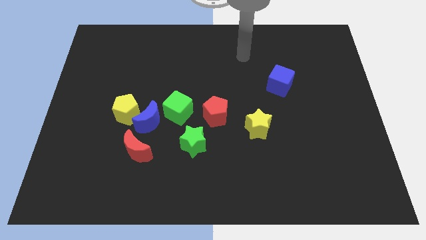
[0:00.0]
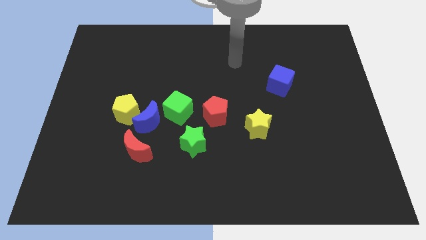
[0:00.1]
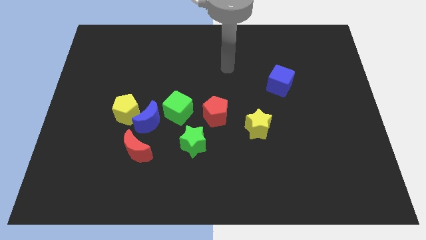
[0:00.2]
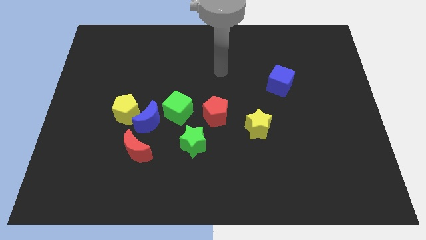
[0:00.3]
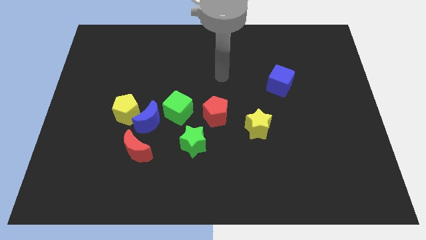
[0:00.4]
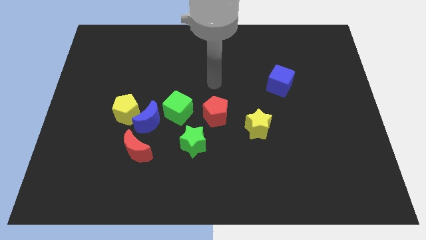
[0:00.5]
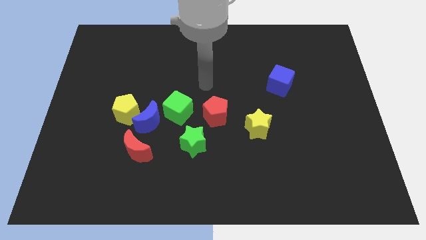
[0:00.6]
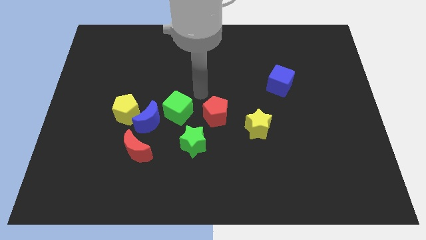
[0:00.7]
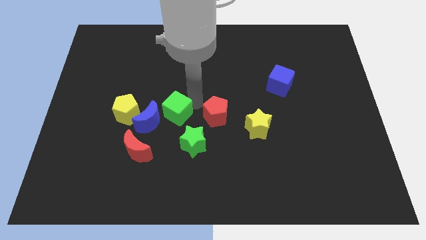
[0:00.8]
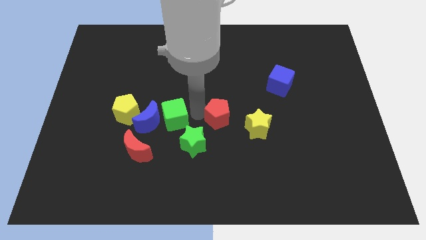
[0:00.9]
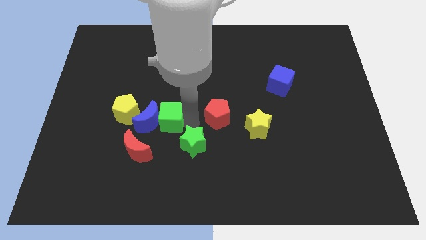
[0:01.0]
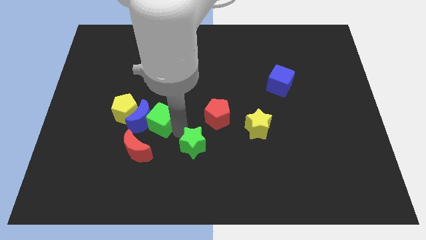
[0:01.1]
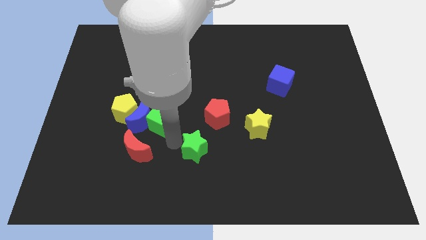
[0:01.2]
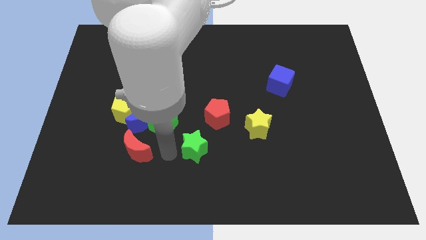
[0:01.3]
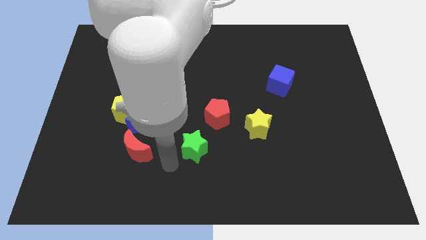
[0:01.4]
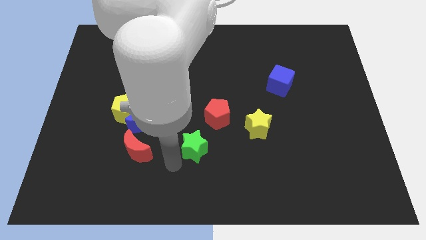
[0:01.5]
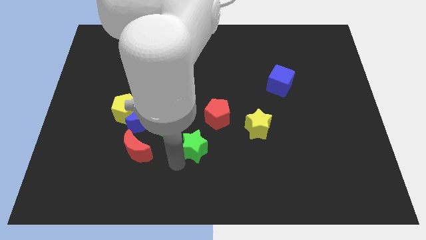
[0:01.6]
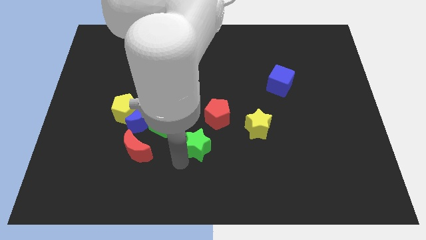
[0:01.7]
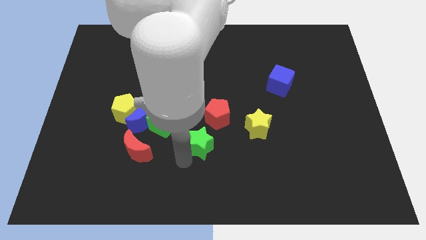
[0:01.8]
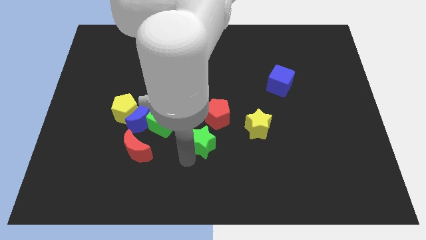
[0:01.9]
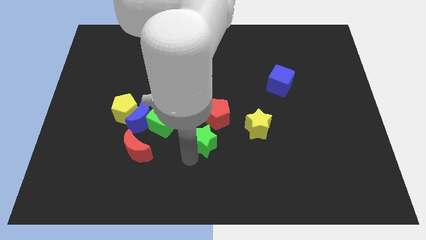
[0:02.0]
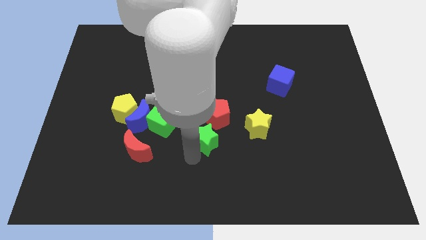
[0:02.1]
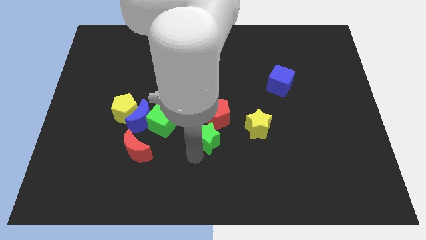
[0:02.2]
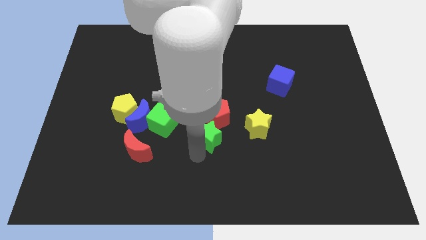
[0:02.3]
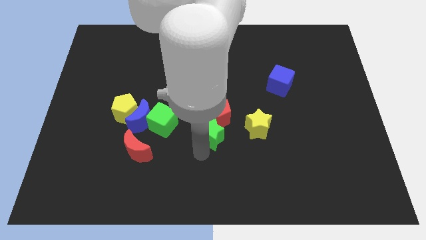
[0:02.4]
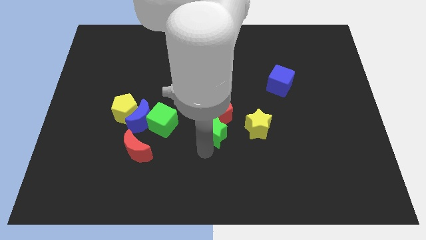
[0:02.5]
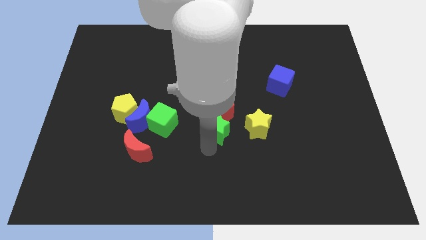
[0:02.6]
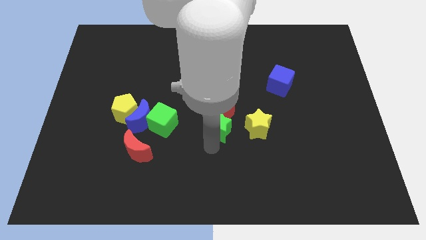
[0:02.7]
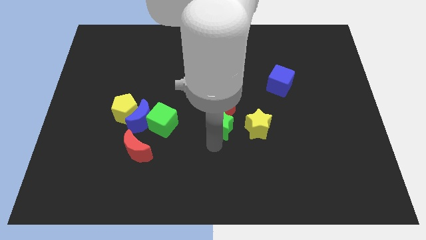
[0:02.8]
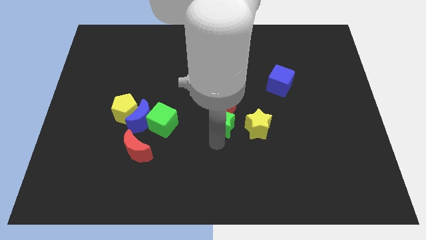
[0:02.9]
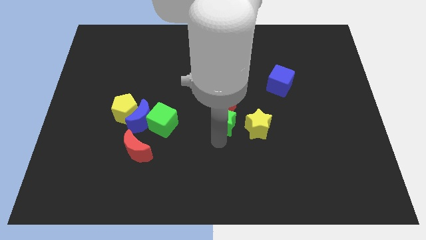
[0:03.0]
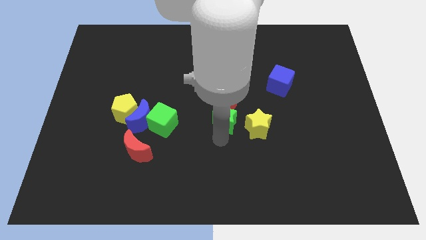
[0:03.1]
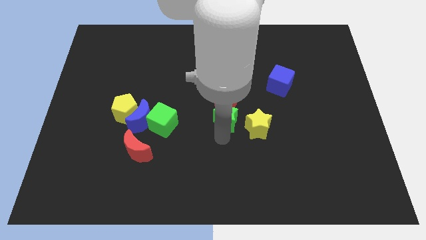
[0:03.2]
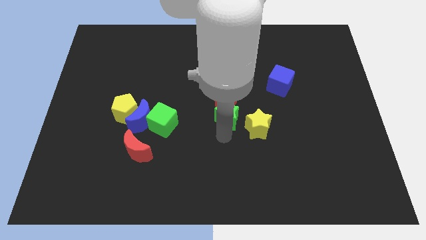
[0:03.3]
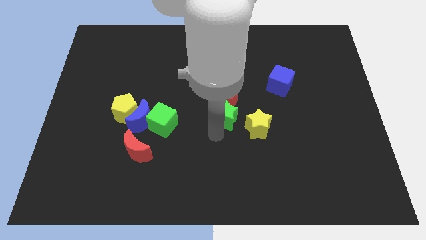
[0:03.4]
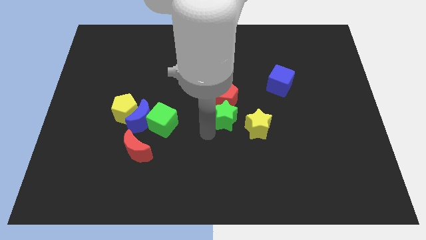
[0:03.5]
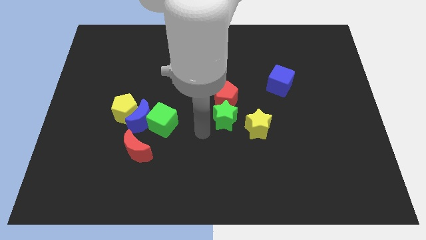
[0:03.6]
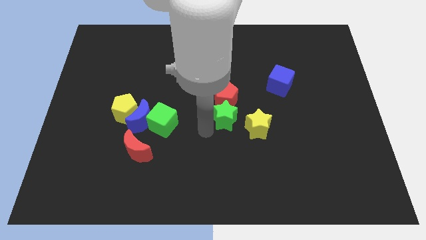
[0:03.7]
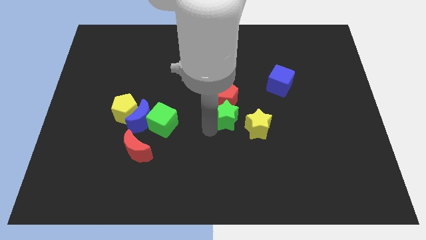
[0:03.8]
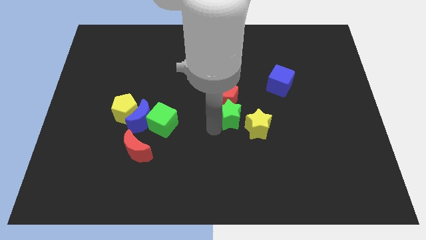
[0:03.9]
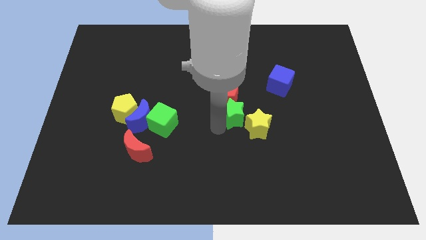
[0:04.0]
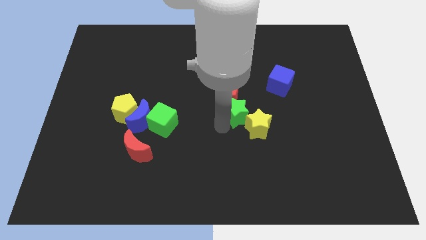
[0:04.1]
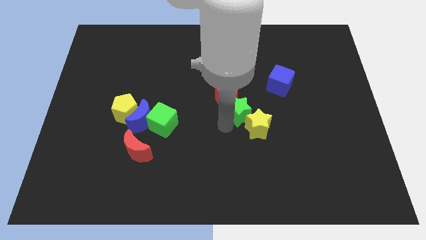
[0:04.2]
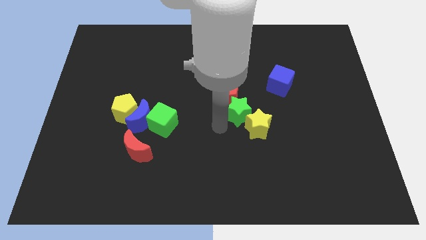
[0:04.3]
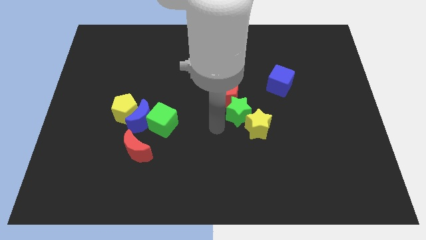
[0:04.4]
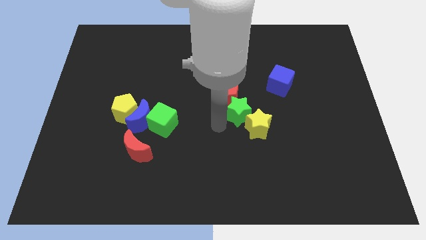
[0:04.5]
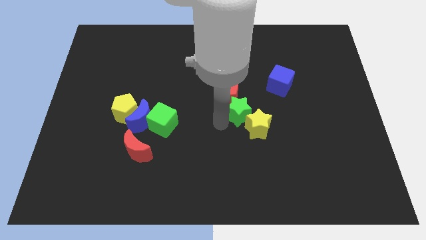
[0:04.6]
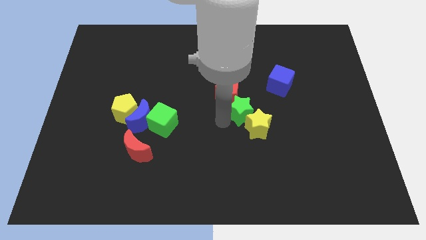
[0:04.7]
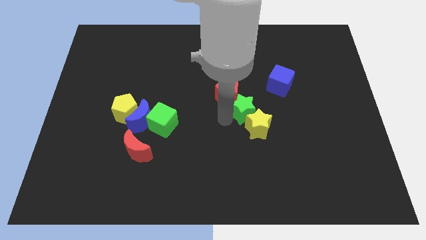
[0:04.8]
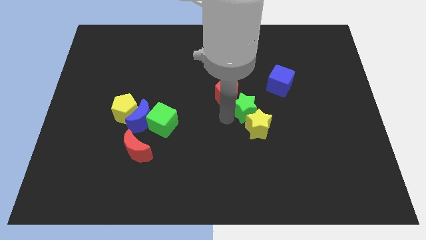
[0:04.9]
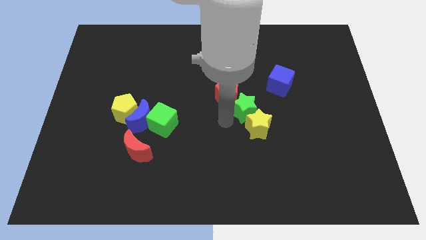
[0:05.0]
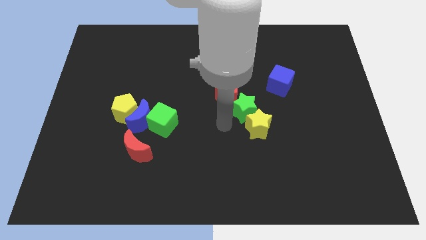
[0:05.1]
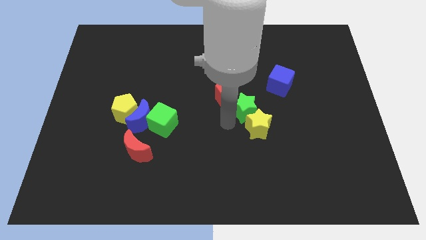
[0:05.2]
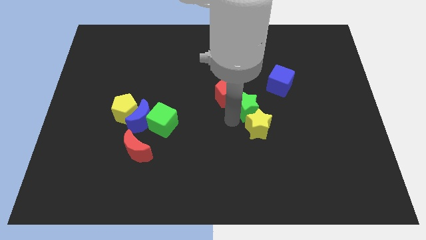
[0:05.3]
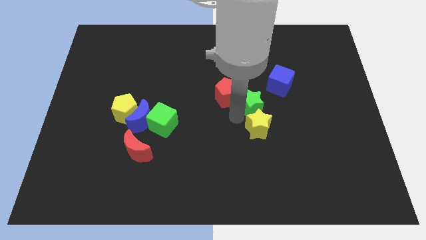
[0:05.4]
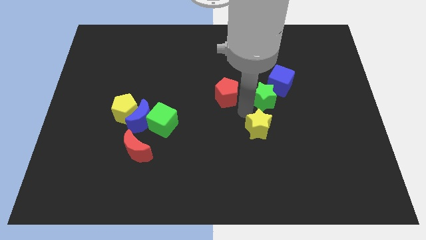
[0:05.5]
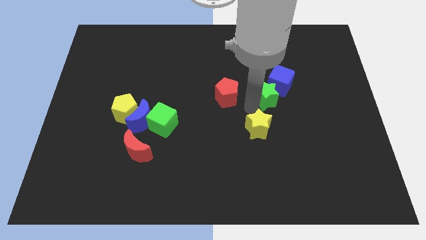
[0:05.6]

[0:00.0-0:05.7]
push the green star to the blue cube

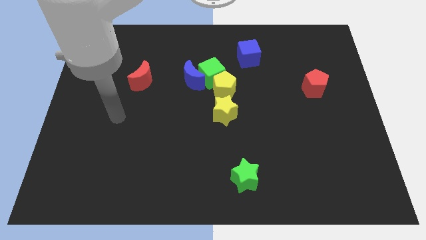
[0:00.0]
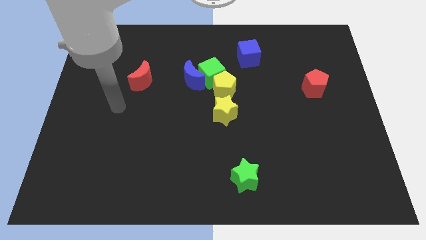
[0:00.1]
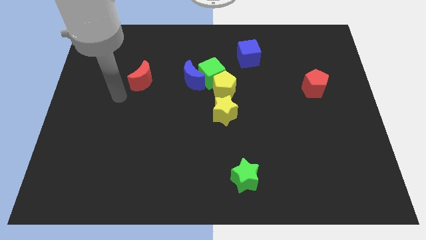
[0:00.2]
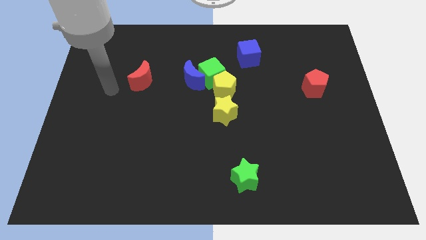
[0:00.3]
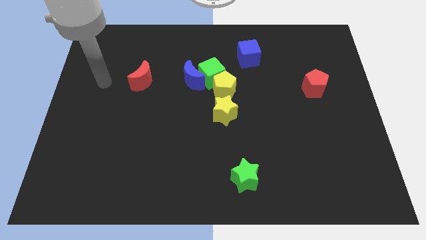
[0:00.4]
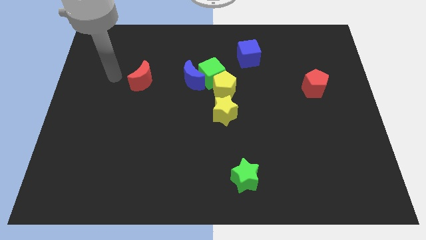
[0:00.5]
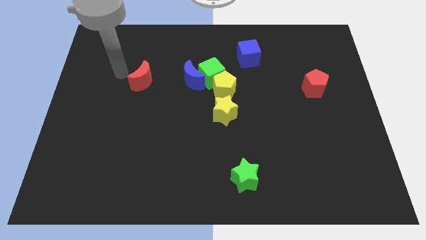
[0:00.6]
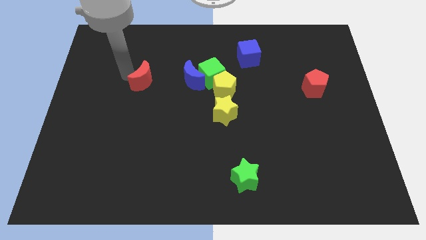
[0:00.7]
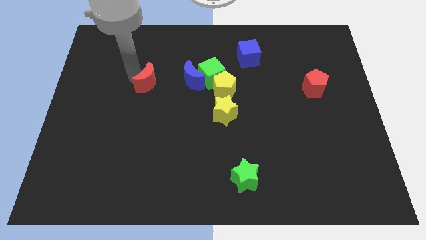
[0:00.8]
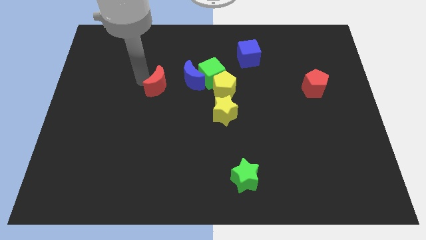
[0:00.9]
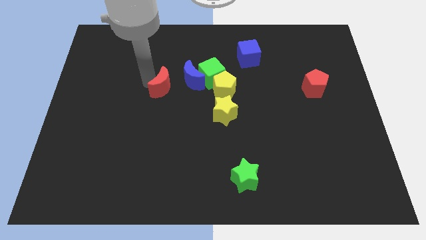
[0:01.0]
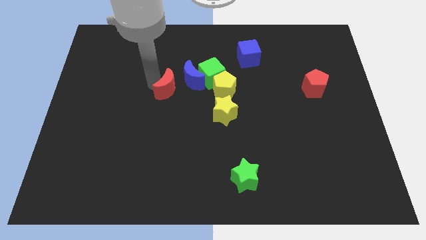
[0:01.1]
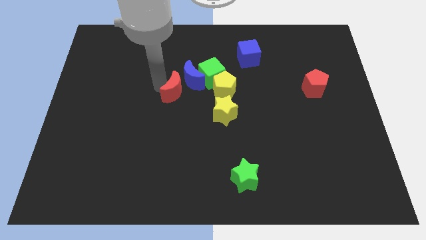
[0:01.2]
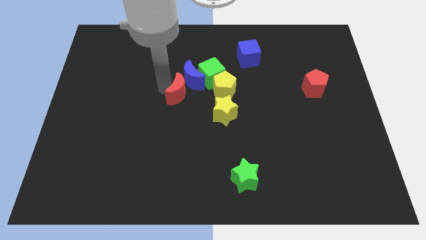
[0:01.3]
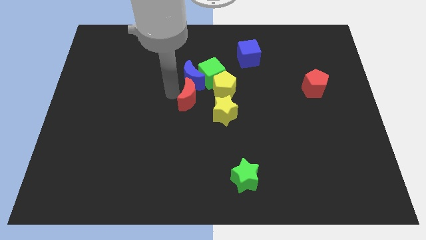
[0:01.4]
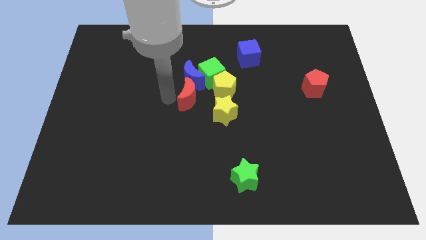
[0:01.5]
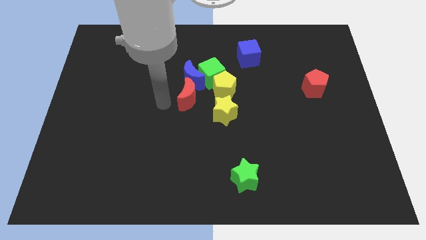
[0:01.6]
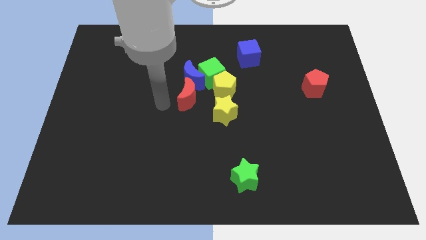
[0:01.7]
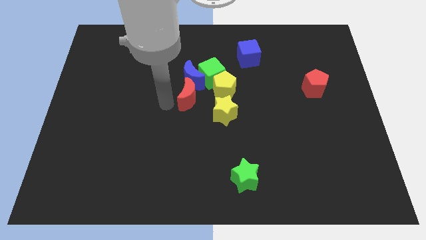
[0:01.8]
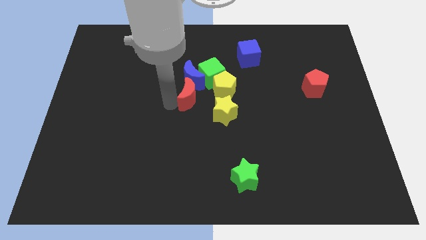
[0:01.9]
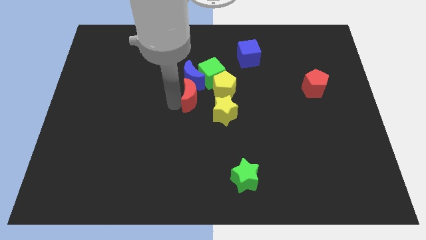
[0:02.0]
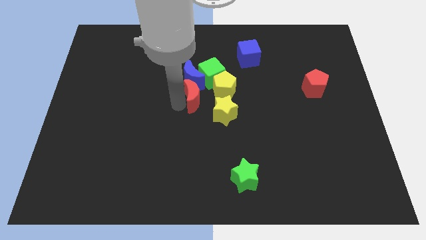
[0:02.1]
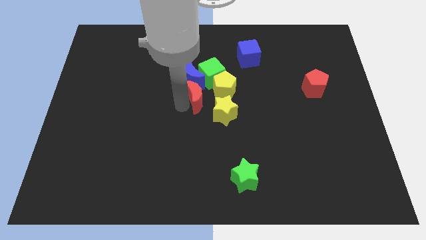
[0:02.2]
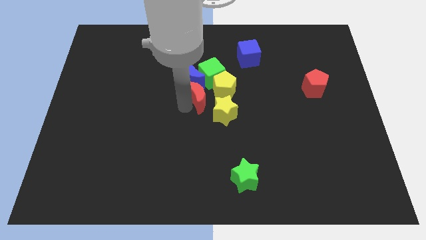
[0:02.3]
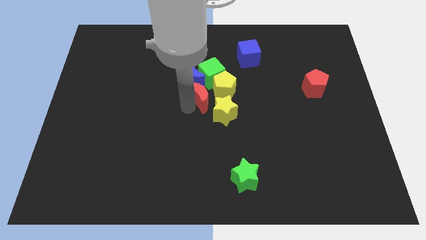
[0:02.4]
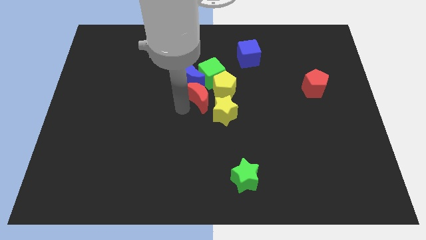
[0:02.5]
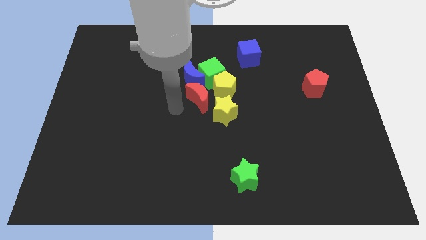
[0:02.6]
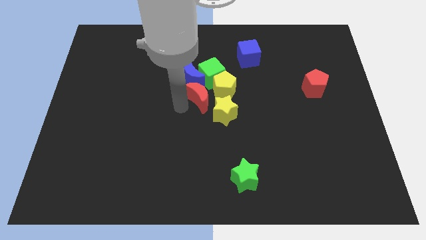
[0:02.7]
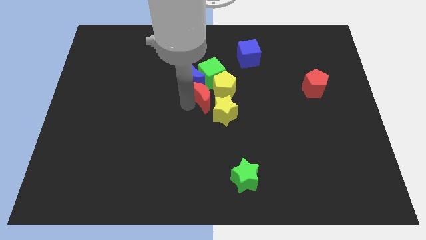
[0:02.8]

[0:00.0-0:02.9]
put the red moon next to the yellow pentagon
